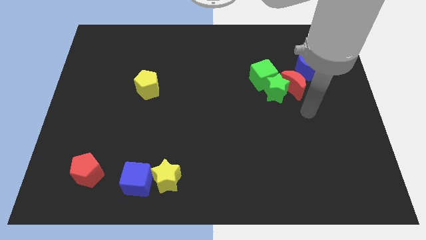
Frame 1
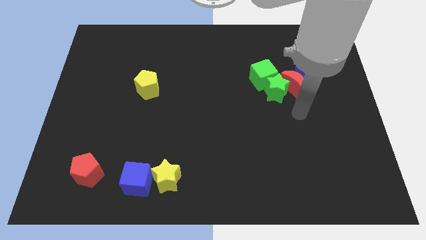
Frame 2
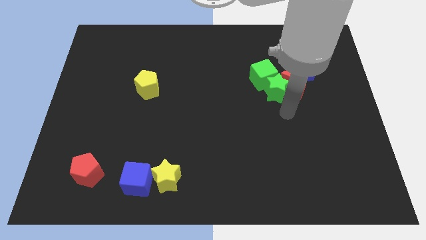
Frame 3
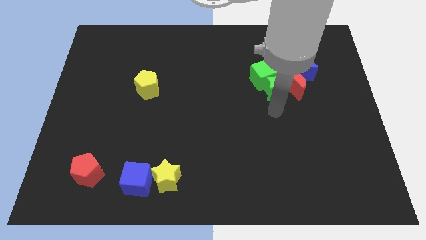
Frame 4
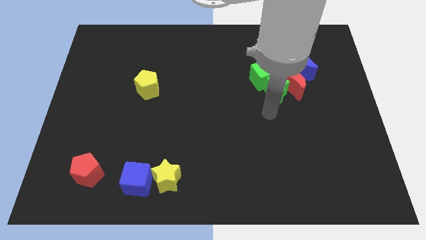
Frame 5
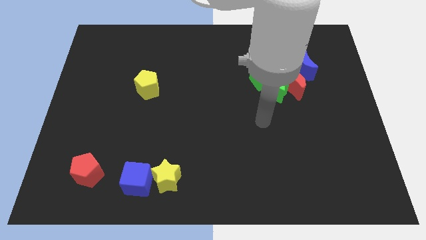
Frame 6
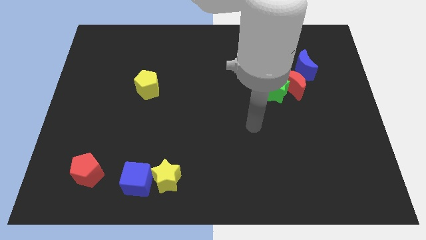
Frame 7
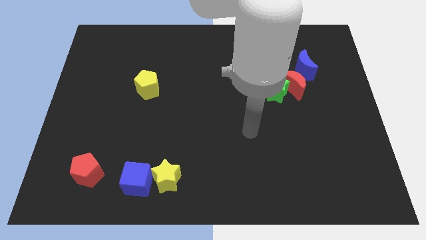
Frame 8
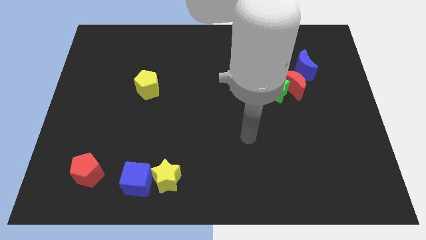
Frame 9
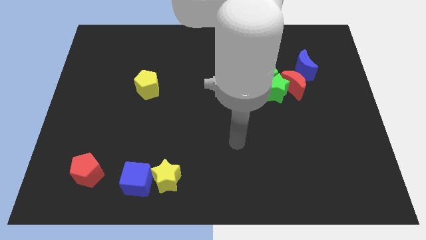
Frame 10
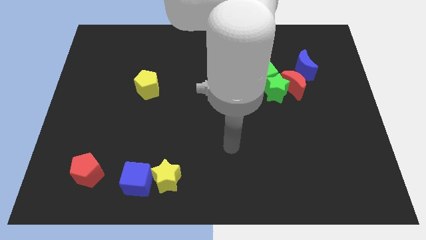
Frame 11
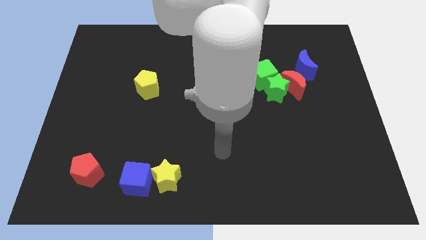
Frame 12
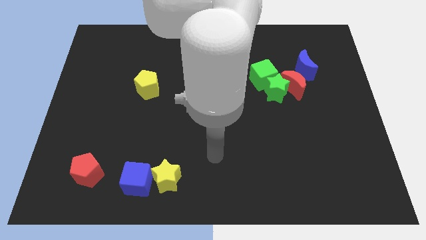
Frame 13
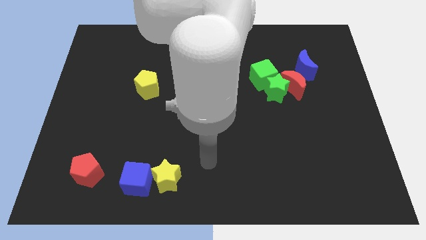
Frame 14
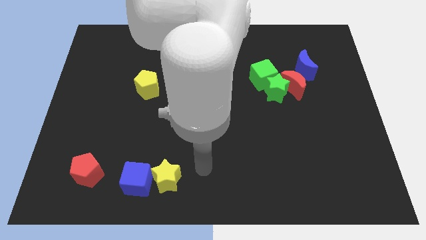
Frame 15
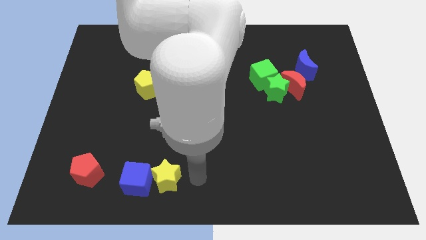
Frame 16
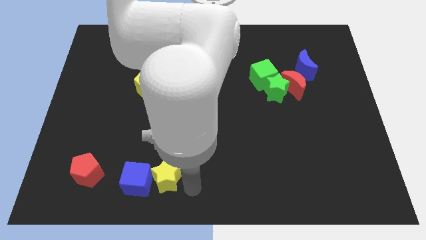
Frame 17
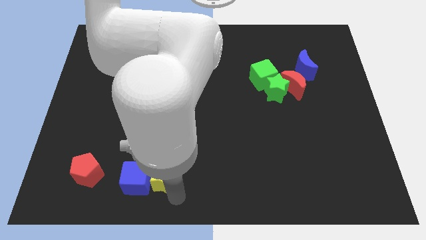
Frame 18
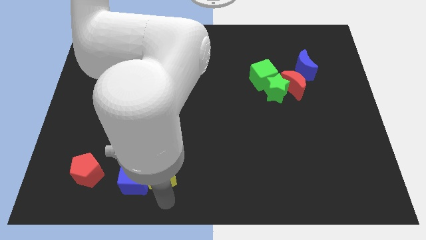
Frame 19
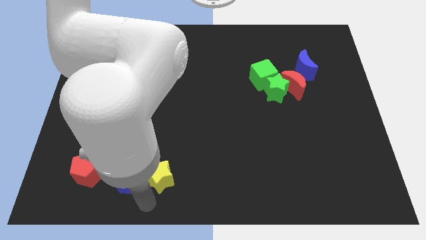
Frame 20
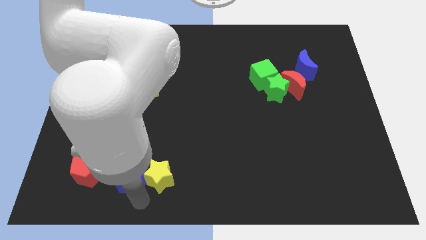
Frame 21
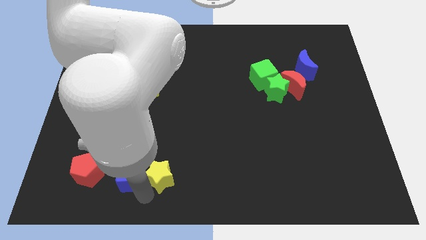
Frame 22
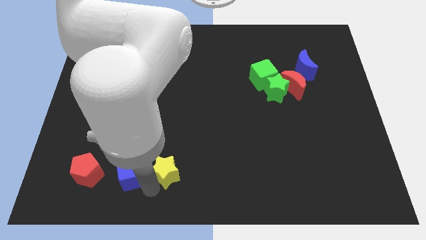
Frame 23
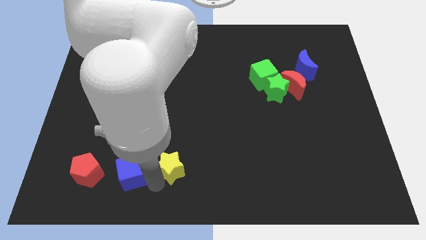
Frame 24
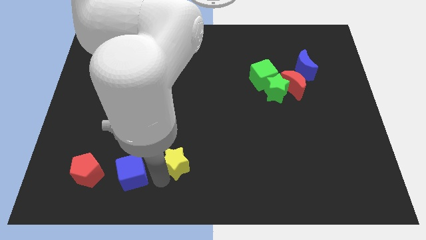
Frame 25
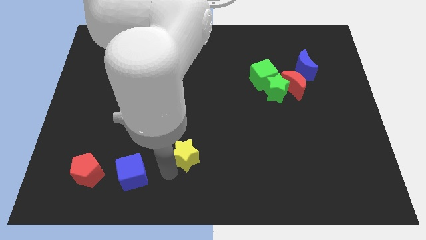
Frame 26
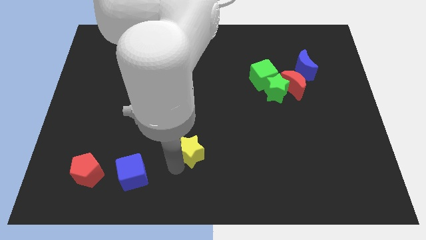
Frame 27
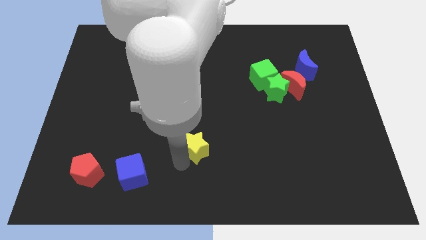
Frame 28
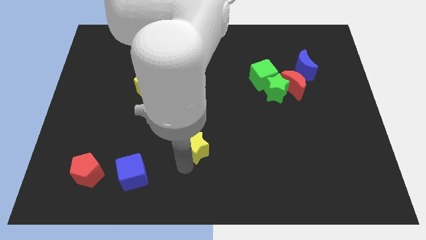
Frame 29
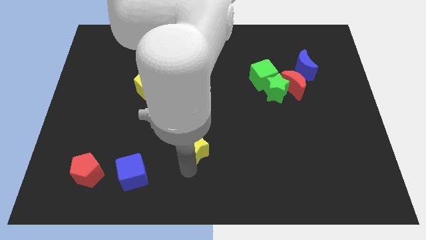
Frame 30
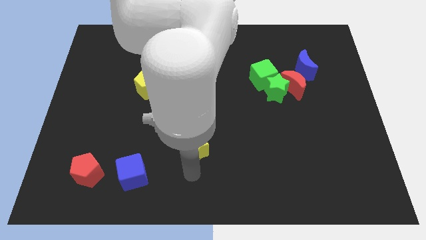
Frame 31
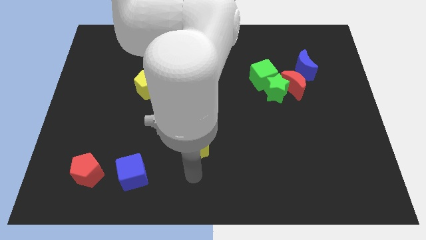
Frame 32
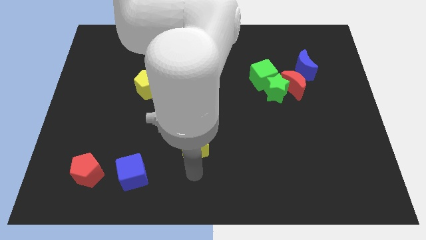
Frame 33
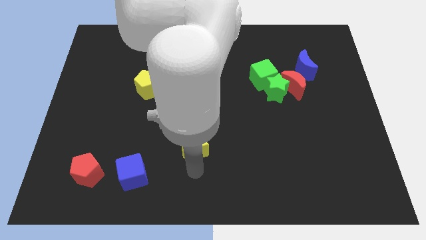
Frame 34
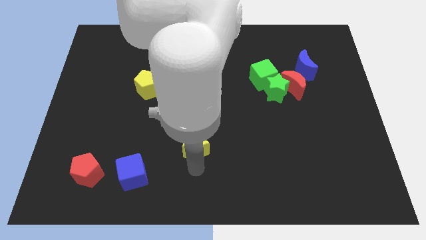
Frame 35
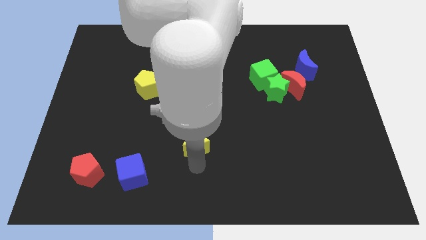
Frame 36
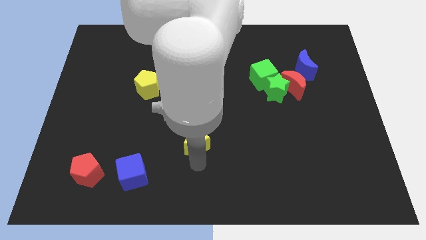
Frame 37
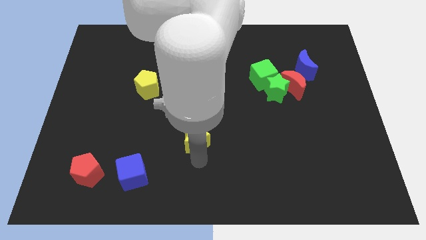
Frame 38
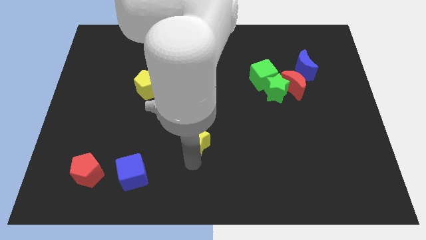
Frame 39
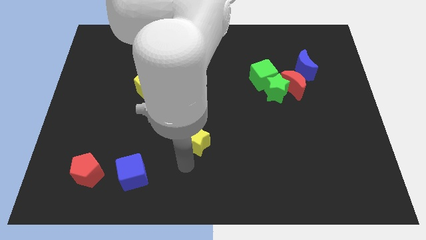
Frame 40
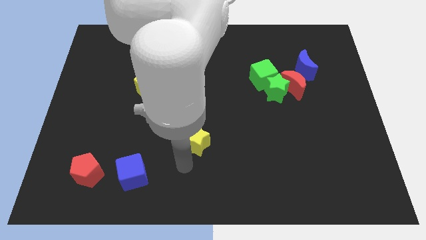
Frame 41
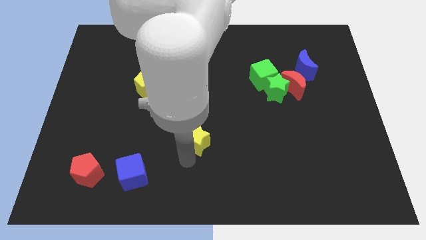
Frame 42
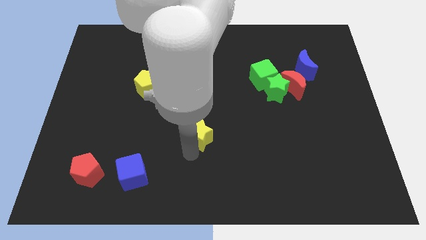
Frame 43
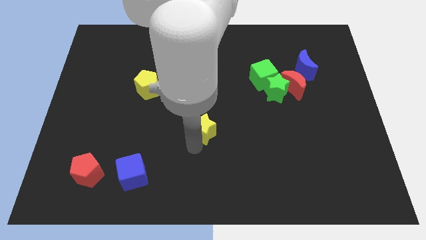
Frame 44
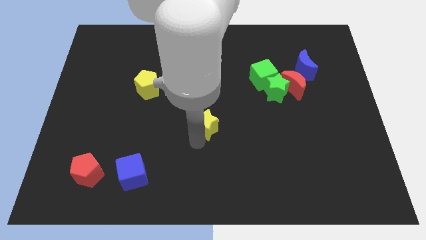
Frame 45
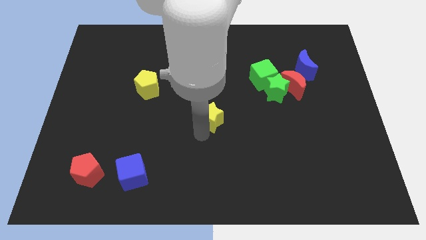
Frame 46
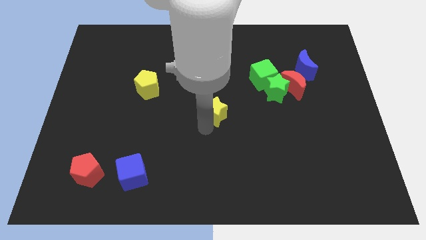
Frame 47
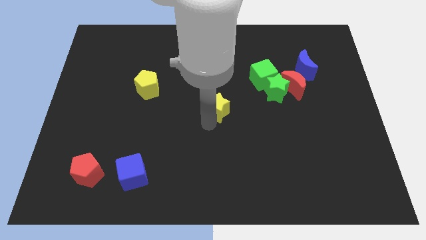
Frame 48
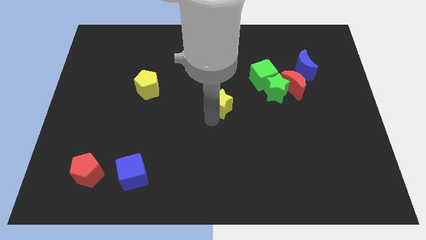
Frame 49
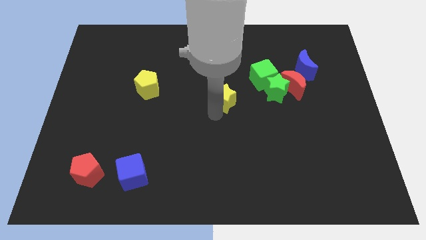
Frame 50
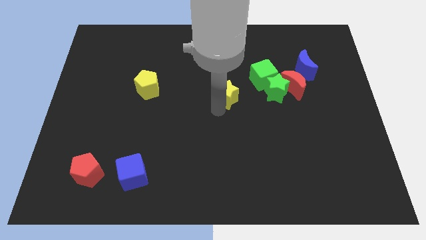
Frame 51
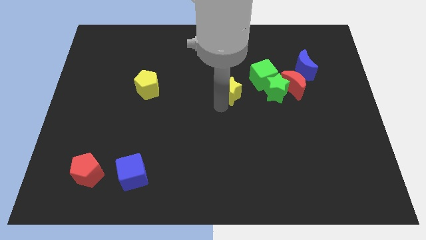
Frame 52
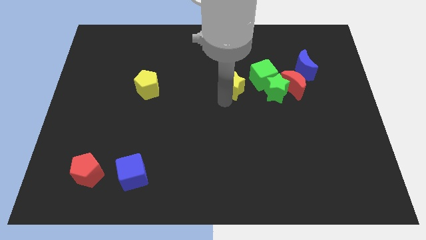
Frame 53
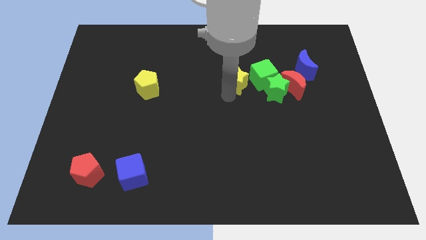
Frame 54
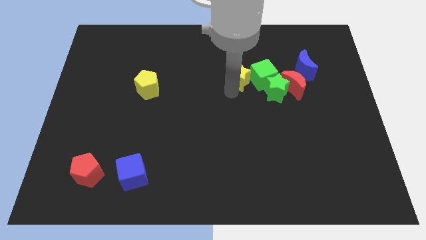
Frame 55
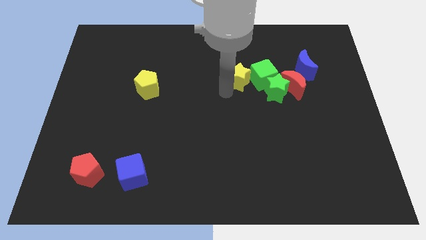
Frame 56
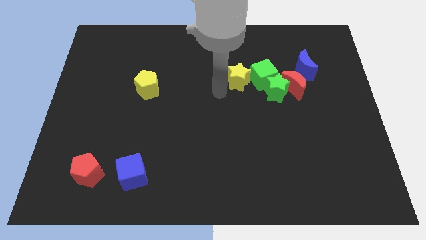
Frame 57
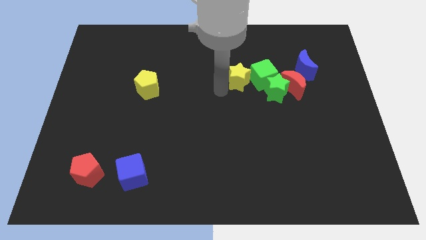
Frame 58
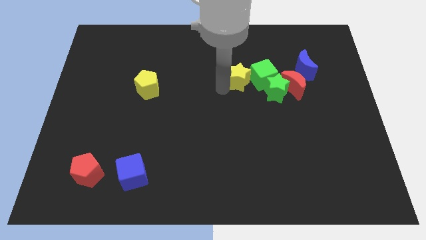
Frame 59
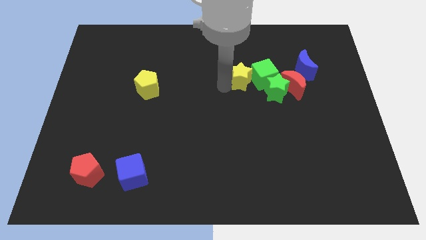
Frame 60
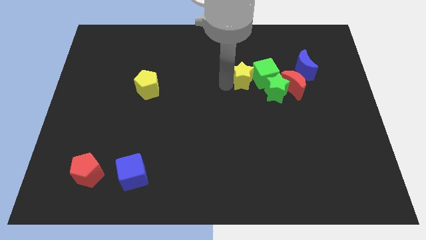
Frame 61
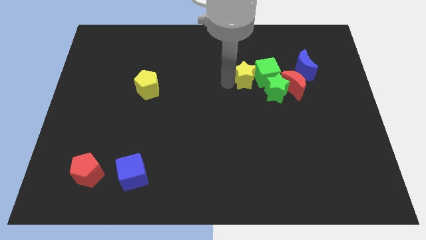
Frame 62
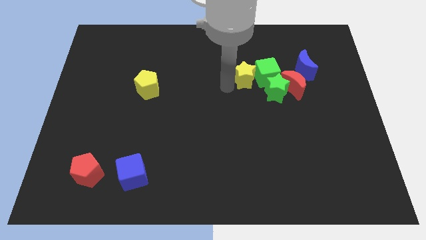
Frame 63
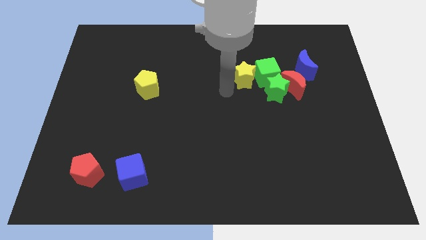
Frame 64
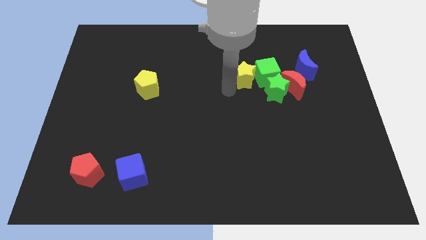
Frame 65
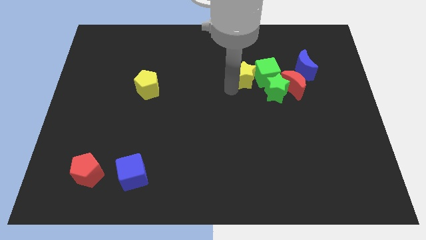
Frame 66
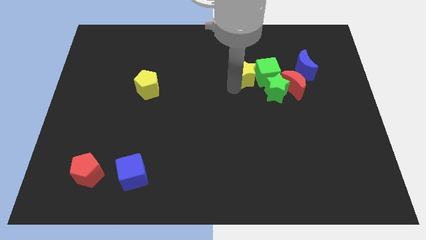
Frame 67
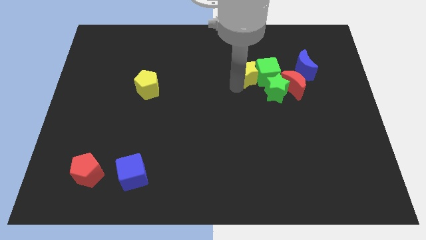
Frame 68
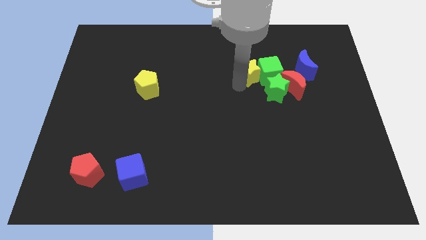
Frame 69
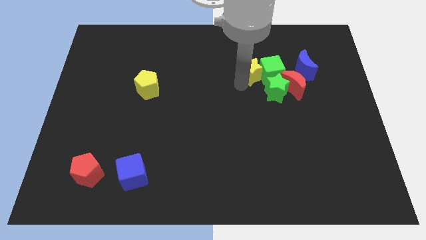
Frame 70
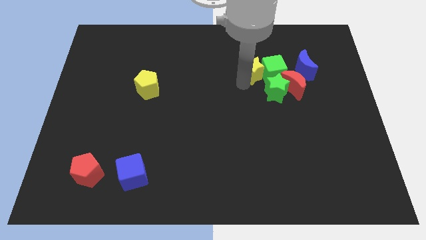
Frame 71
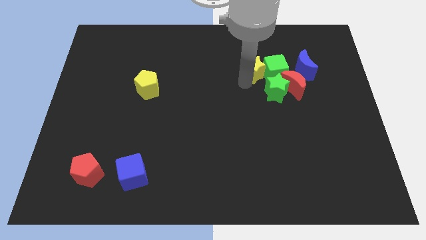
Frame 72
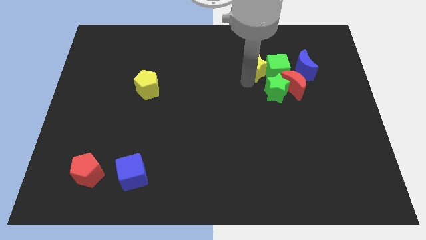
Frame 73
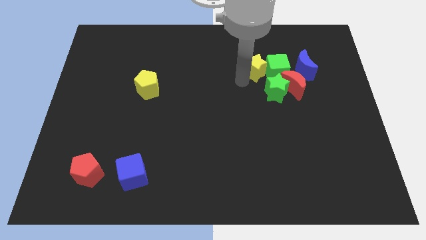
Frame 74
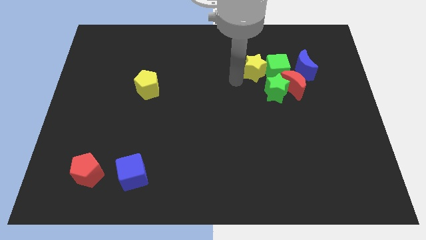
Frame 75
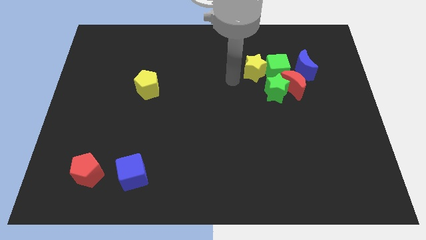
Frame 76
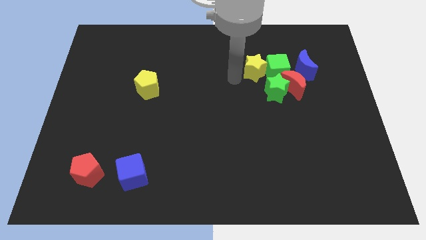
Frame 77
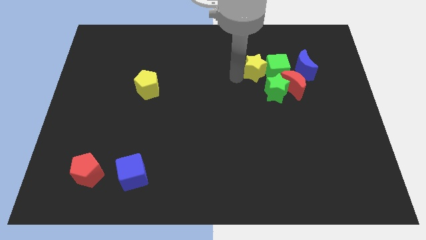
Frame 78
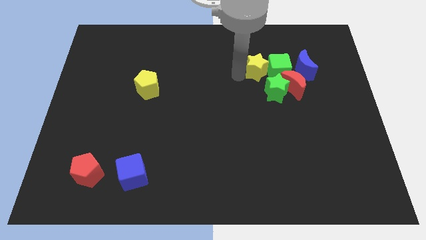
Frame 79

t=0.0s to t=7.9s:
put the yellow star to the top side of the green star
